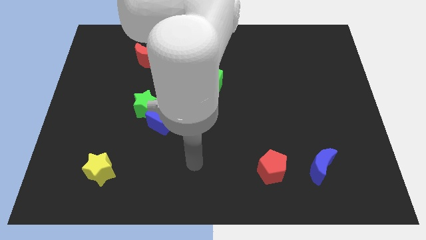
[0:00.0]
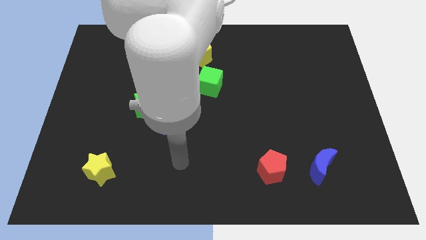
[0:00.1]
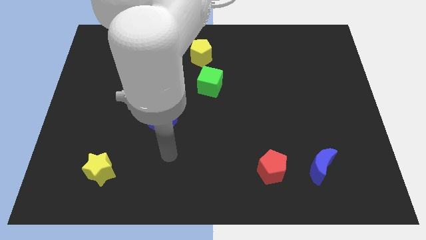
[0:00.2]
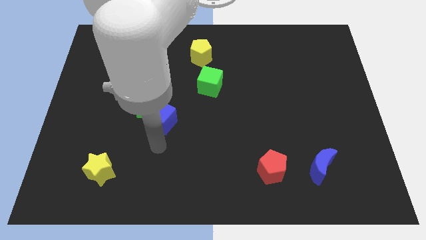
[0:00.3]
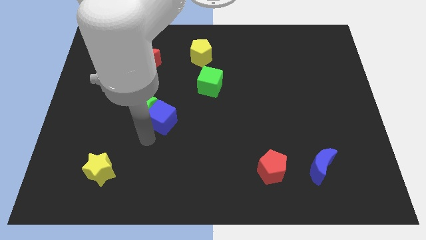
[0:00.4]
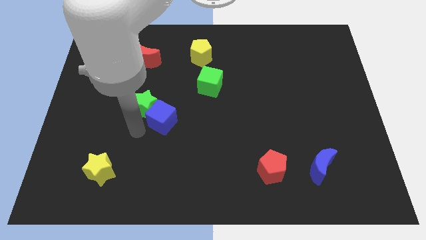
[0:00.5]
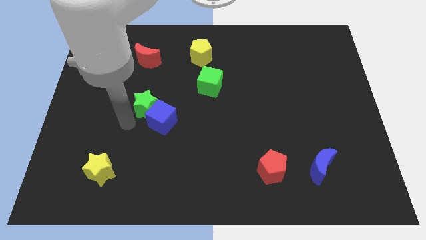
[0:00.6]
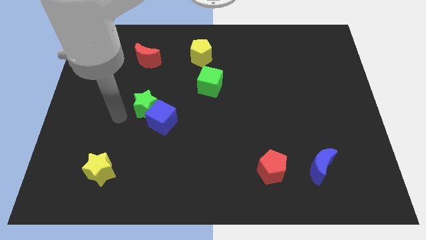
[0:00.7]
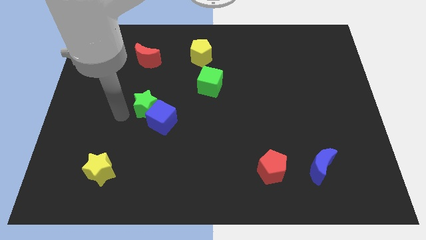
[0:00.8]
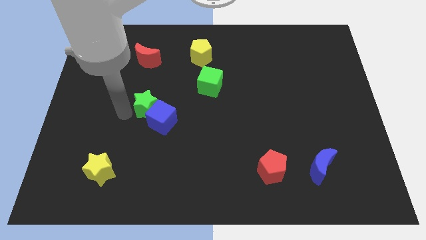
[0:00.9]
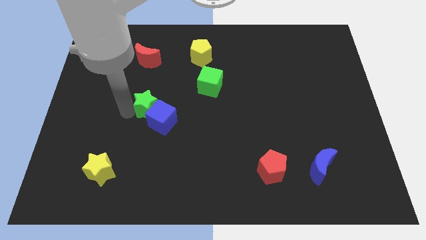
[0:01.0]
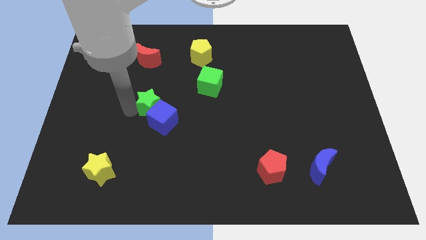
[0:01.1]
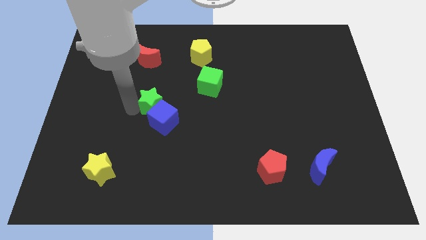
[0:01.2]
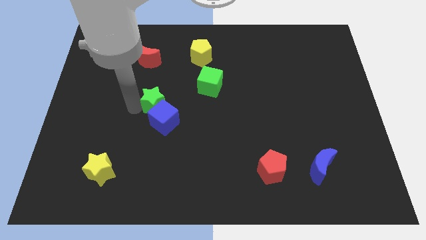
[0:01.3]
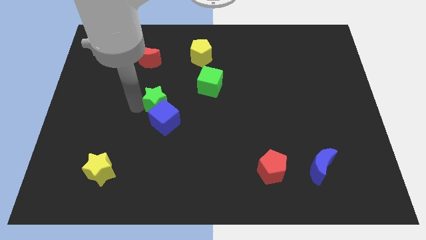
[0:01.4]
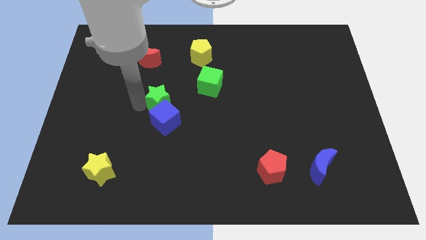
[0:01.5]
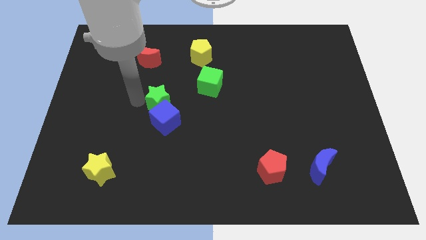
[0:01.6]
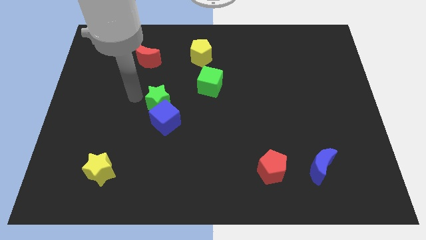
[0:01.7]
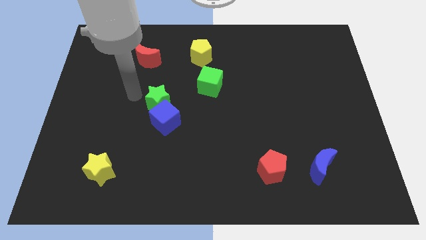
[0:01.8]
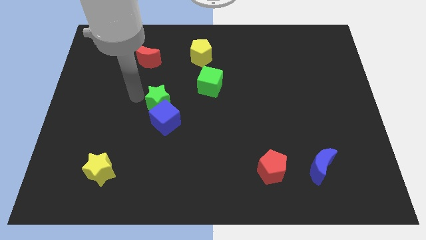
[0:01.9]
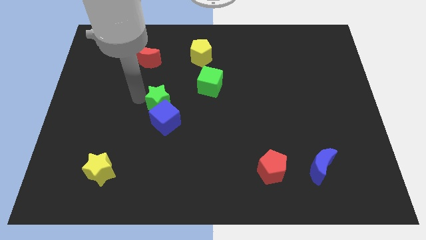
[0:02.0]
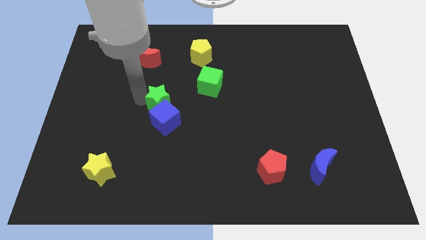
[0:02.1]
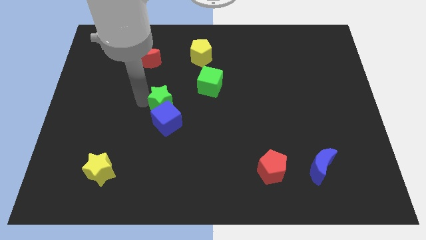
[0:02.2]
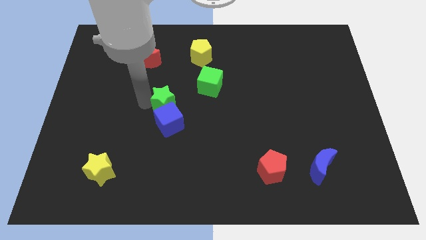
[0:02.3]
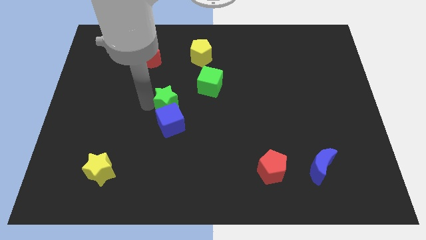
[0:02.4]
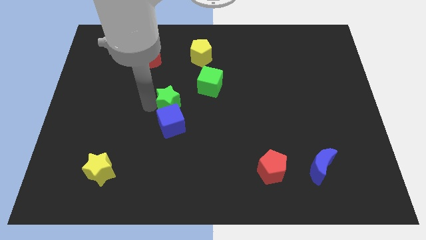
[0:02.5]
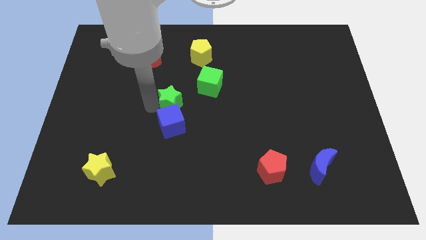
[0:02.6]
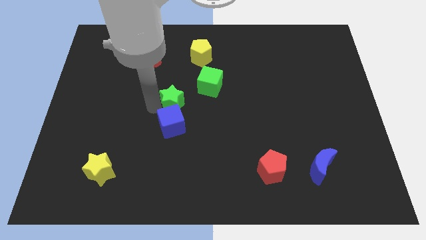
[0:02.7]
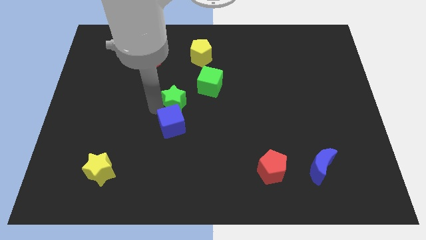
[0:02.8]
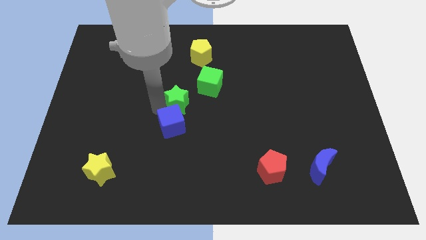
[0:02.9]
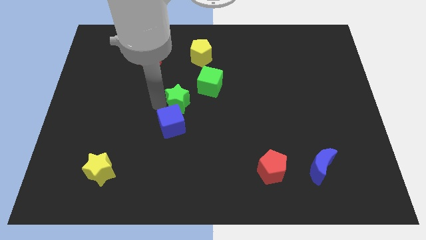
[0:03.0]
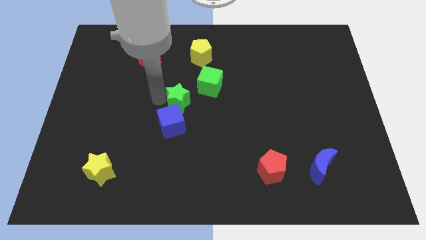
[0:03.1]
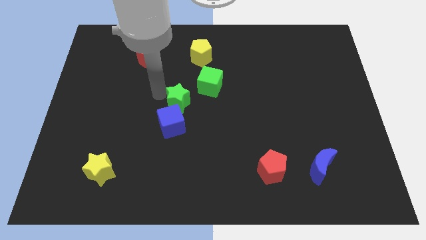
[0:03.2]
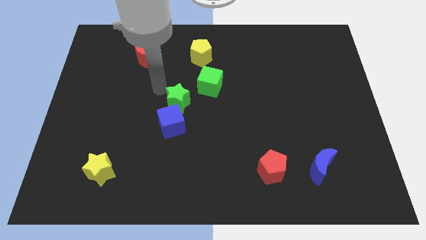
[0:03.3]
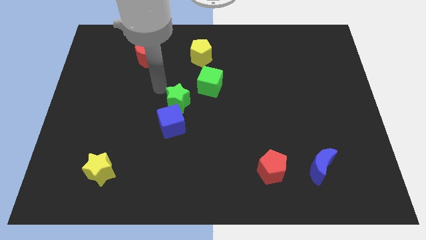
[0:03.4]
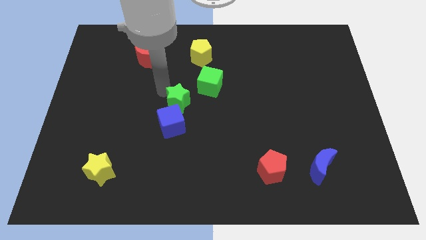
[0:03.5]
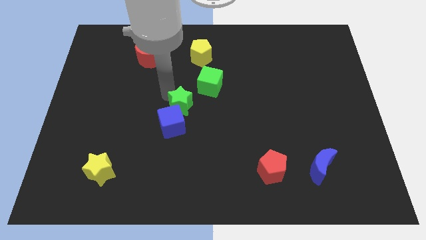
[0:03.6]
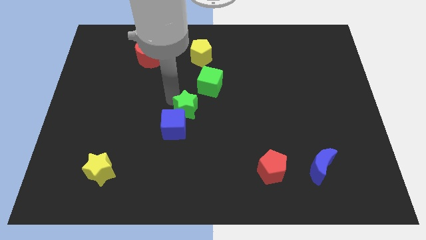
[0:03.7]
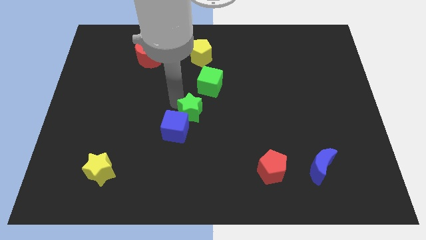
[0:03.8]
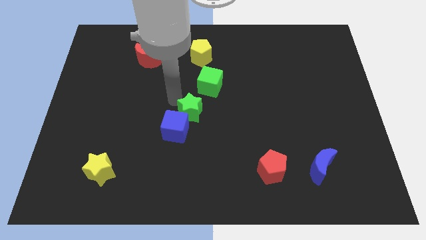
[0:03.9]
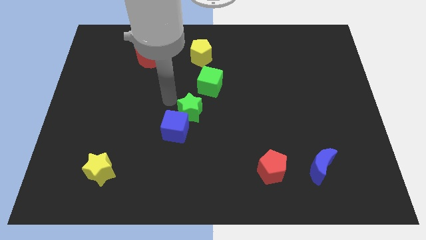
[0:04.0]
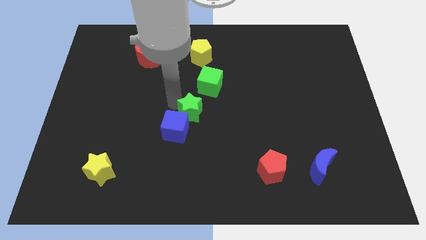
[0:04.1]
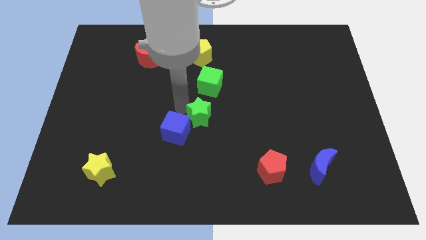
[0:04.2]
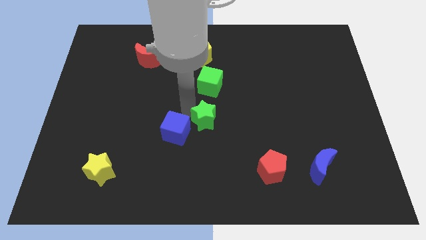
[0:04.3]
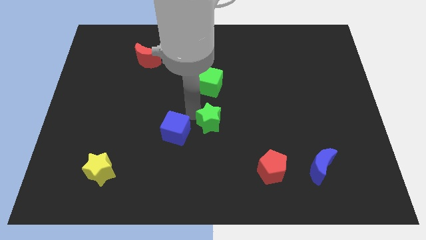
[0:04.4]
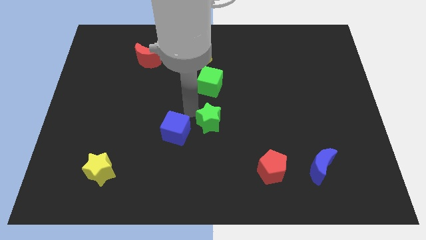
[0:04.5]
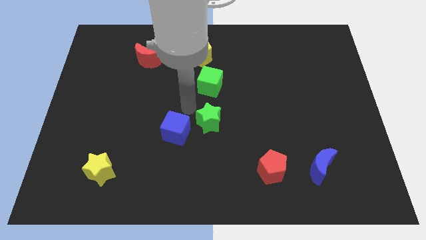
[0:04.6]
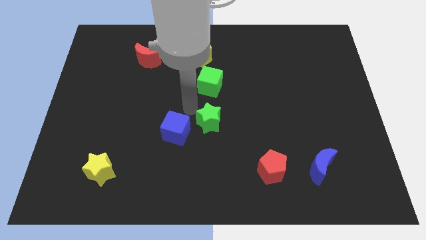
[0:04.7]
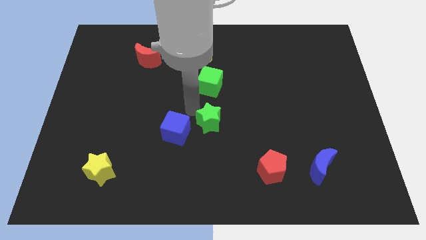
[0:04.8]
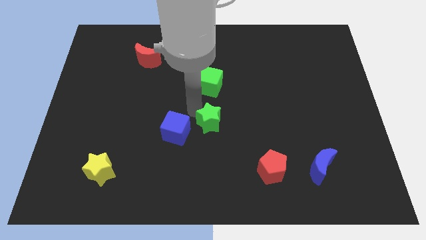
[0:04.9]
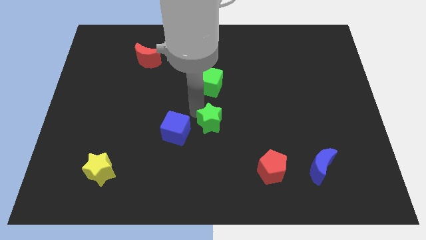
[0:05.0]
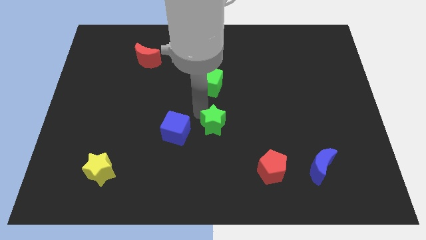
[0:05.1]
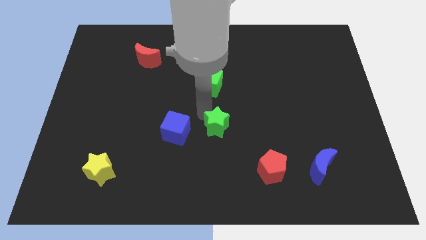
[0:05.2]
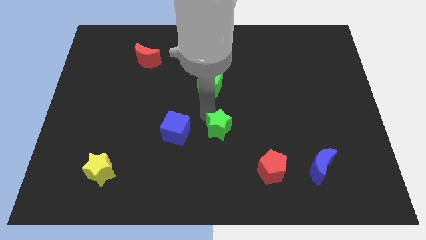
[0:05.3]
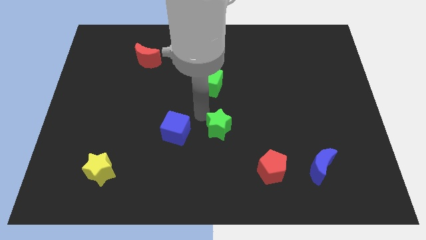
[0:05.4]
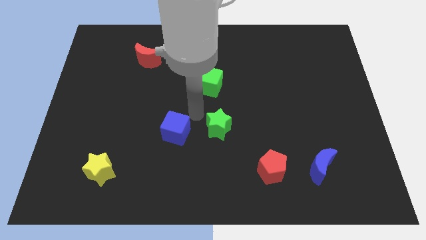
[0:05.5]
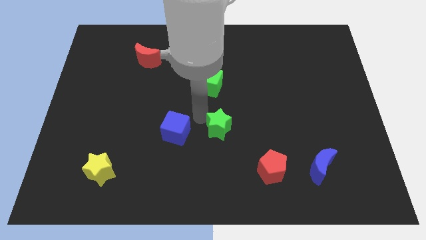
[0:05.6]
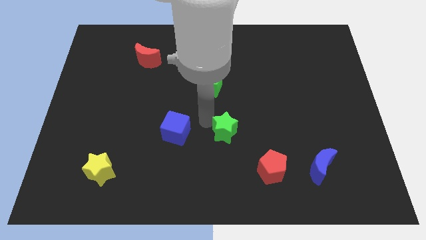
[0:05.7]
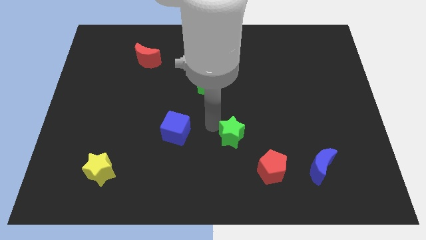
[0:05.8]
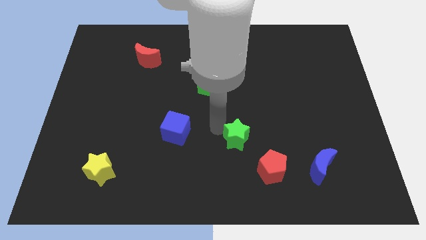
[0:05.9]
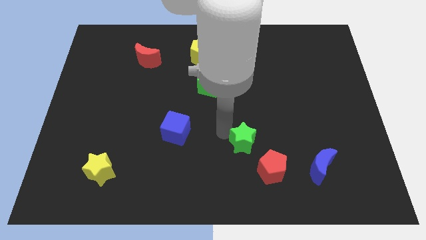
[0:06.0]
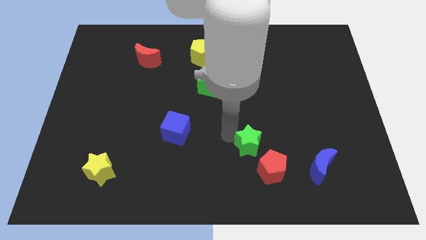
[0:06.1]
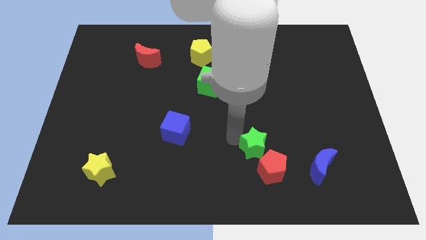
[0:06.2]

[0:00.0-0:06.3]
put the green star to the red pentagon

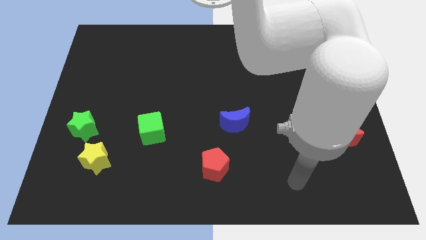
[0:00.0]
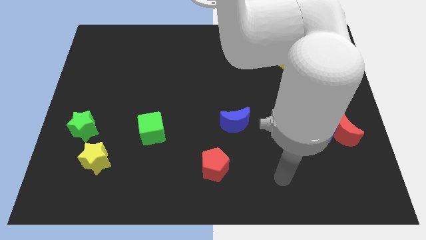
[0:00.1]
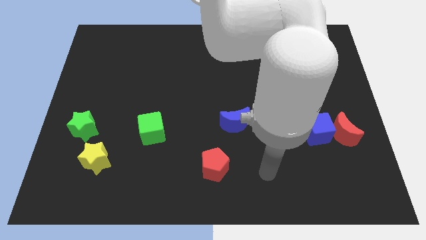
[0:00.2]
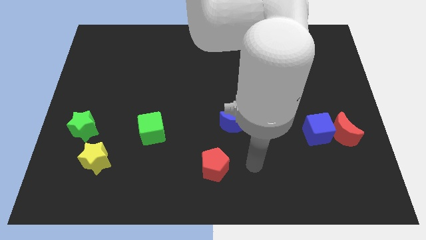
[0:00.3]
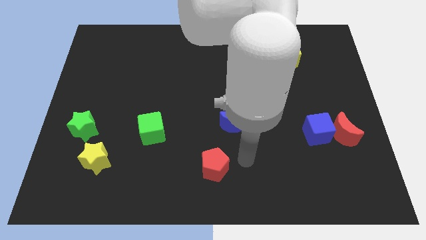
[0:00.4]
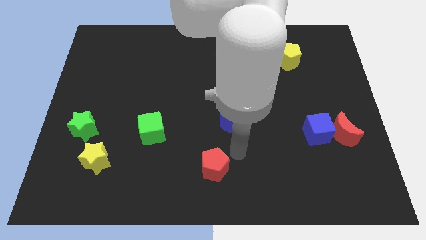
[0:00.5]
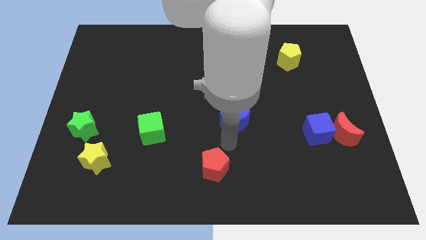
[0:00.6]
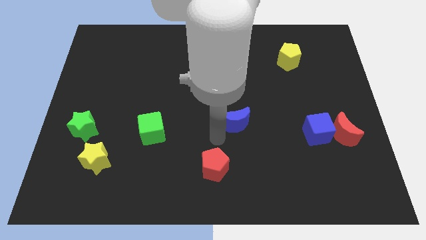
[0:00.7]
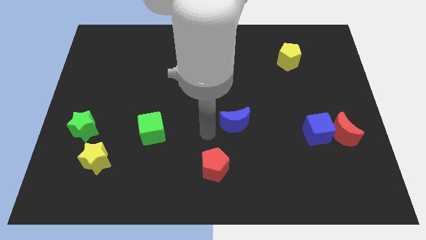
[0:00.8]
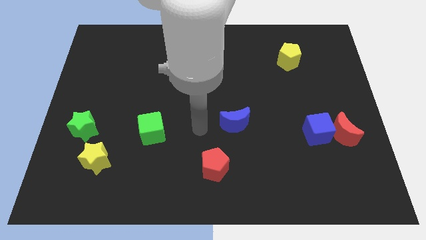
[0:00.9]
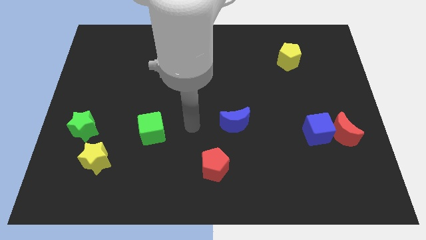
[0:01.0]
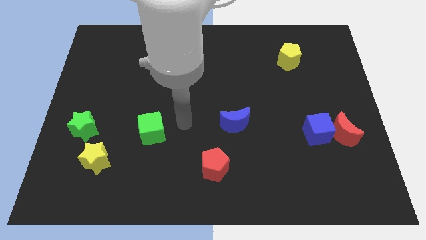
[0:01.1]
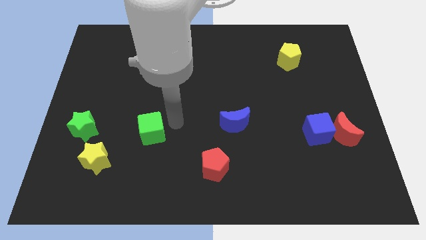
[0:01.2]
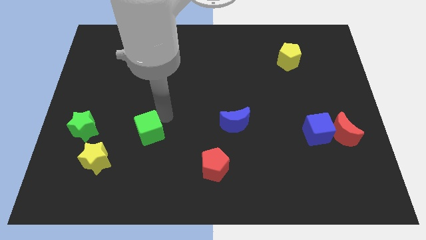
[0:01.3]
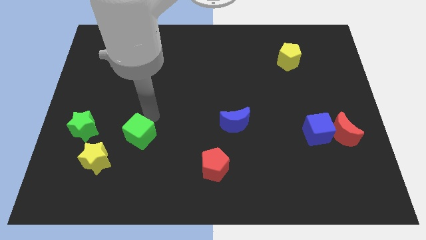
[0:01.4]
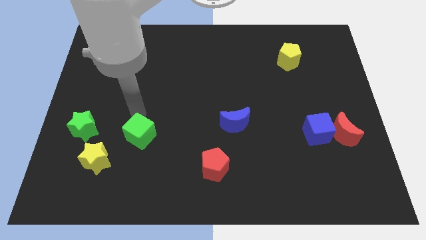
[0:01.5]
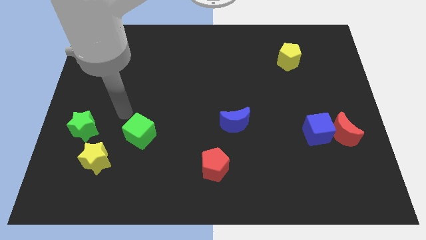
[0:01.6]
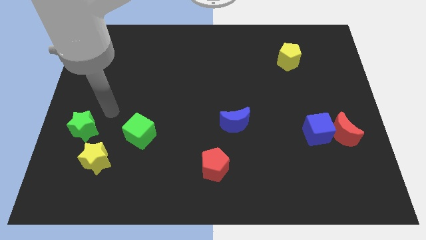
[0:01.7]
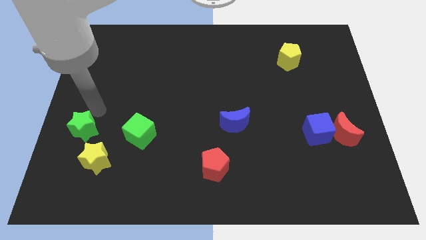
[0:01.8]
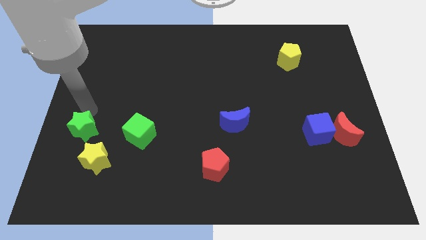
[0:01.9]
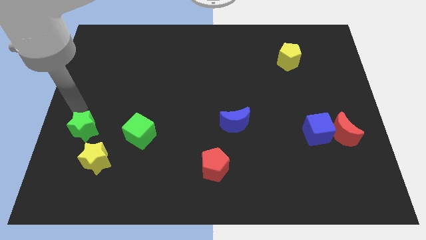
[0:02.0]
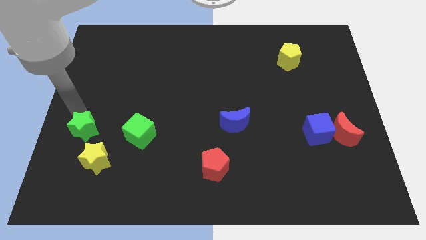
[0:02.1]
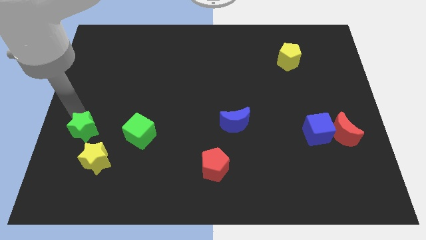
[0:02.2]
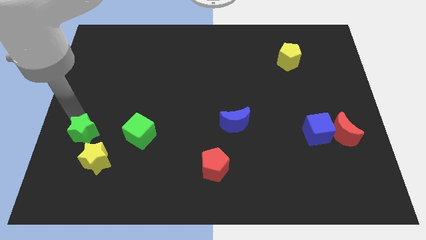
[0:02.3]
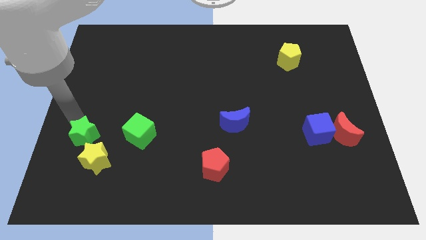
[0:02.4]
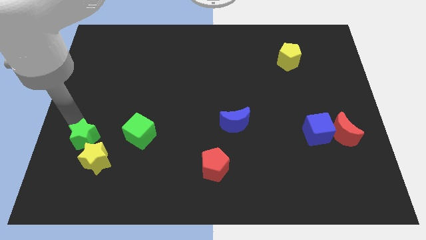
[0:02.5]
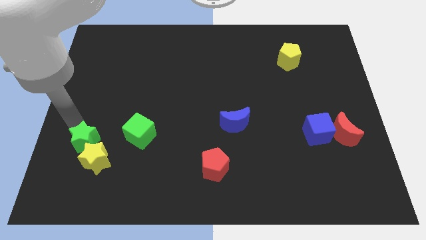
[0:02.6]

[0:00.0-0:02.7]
move the green star close to the yellow star
